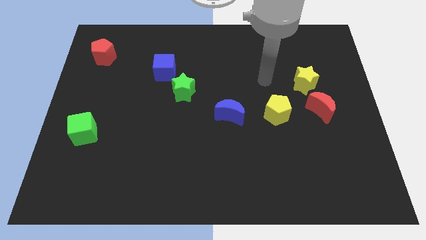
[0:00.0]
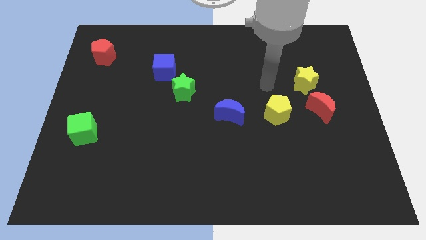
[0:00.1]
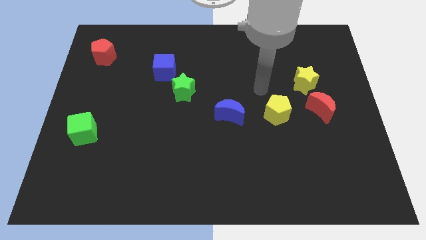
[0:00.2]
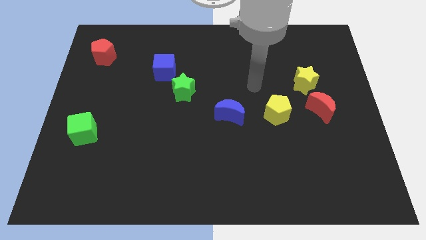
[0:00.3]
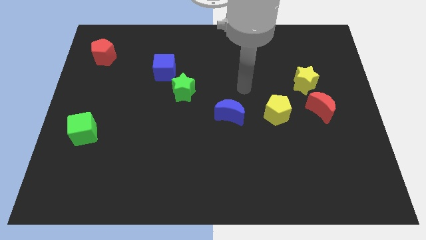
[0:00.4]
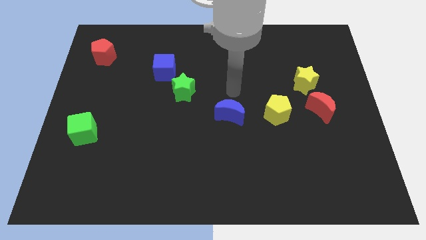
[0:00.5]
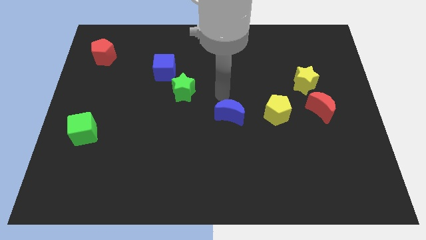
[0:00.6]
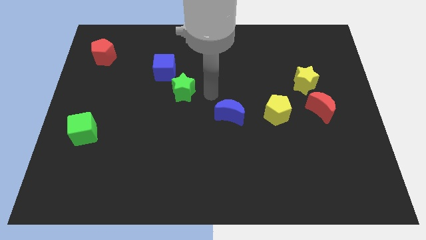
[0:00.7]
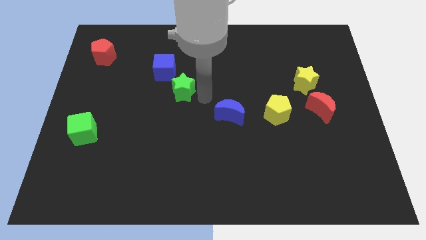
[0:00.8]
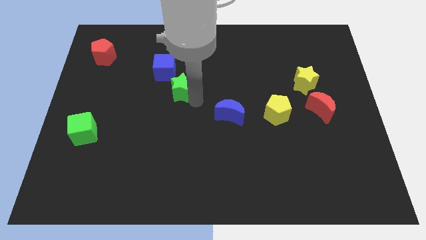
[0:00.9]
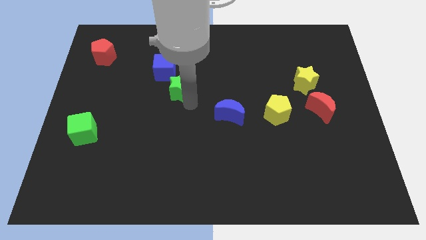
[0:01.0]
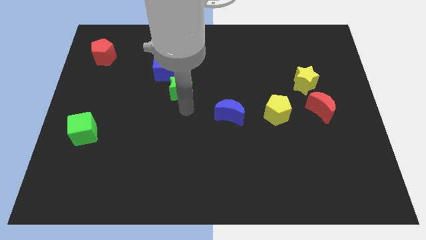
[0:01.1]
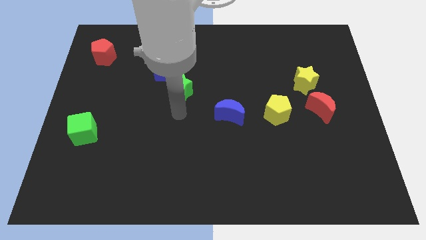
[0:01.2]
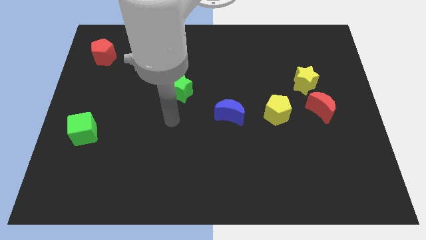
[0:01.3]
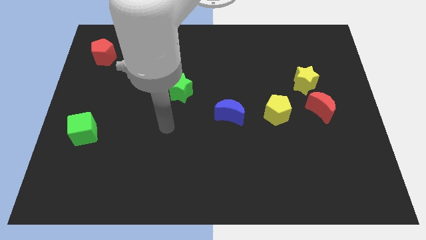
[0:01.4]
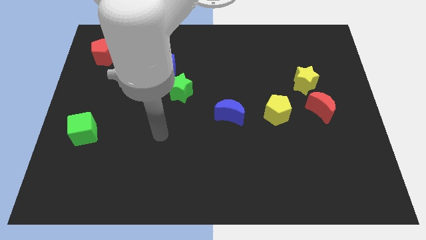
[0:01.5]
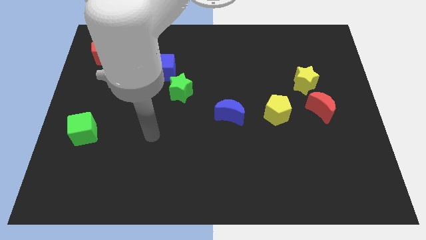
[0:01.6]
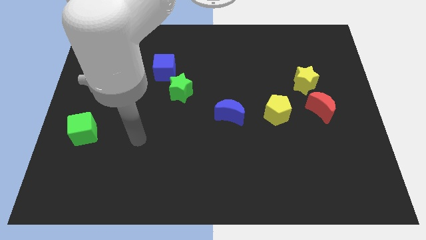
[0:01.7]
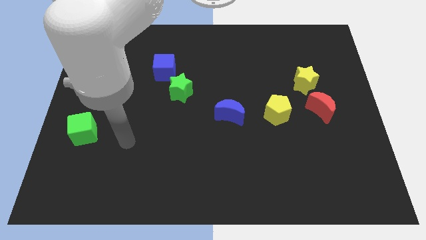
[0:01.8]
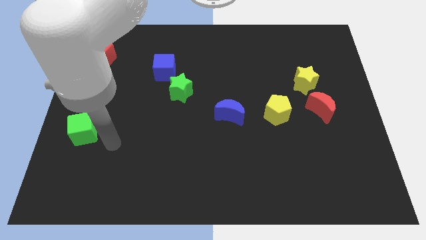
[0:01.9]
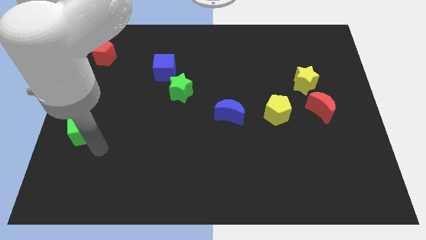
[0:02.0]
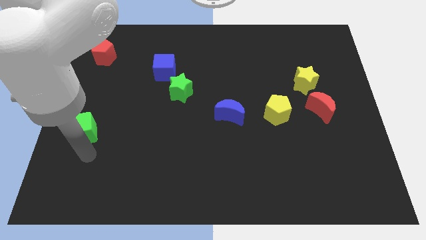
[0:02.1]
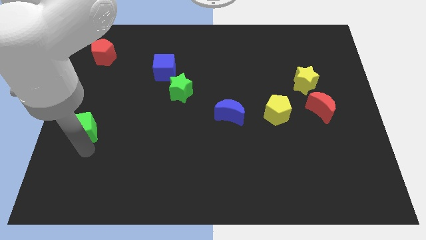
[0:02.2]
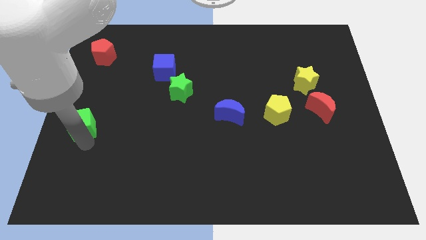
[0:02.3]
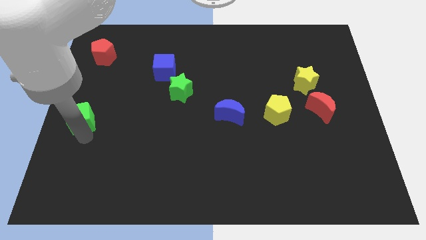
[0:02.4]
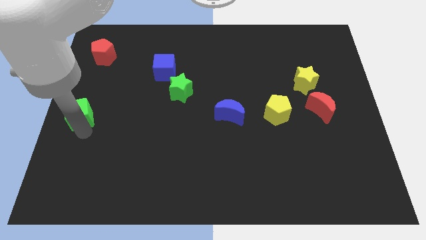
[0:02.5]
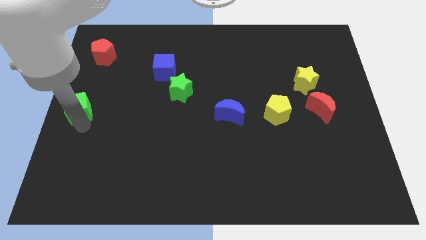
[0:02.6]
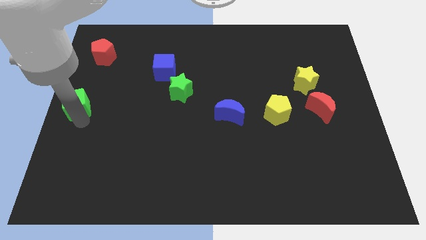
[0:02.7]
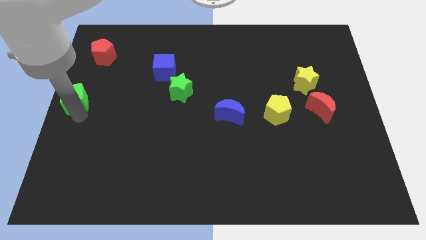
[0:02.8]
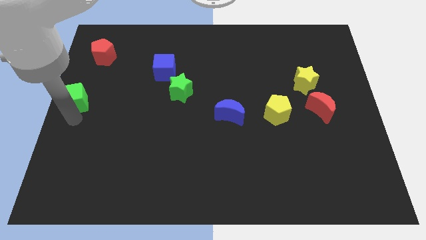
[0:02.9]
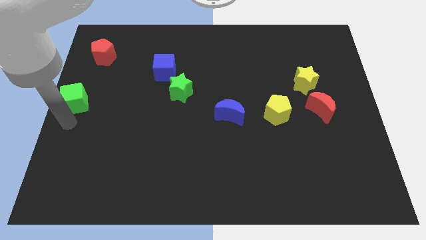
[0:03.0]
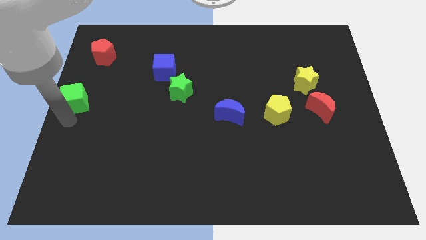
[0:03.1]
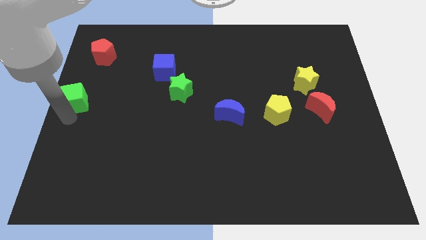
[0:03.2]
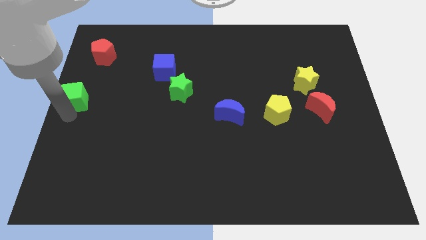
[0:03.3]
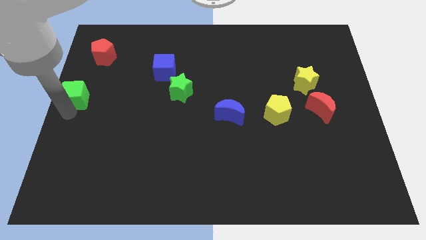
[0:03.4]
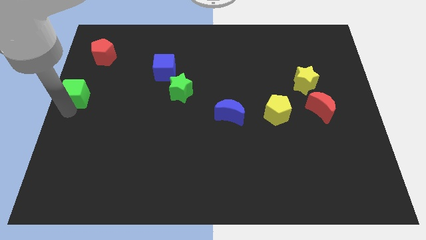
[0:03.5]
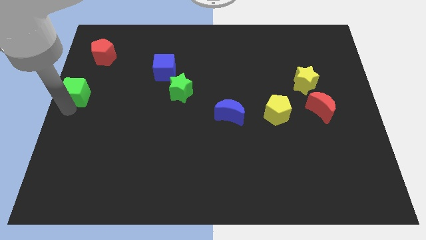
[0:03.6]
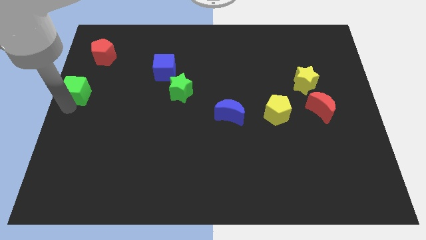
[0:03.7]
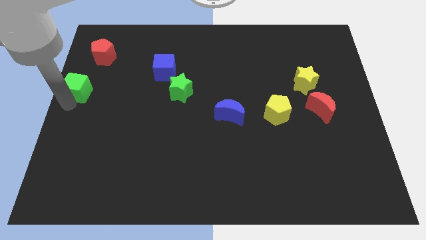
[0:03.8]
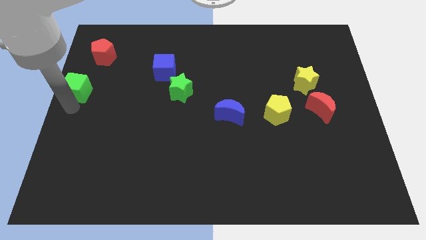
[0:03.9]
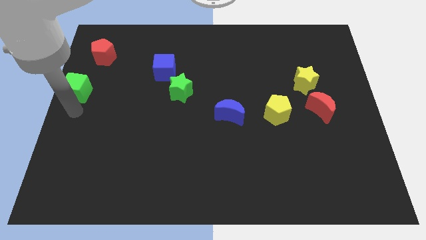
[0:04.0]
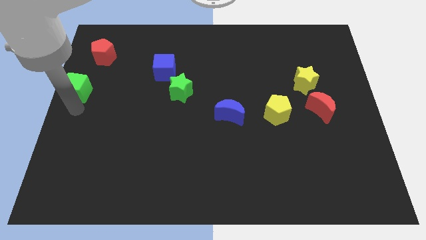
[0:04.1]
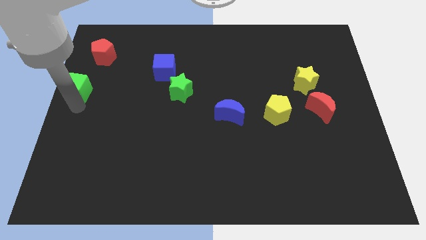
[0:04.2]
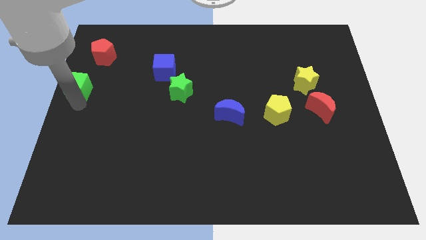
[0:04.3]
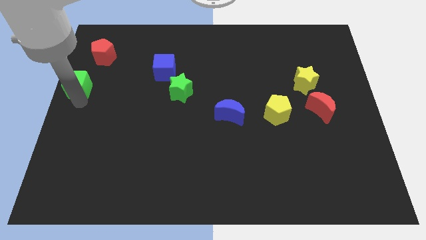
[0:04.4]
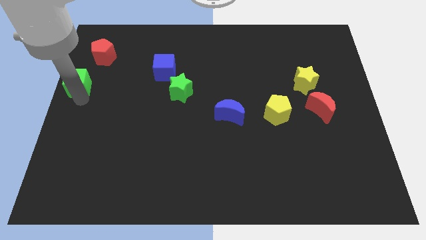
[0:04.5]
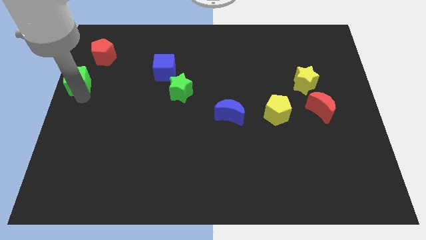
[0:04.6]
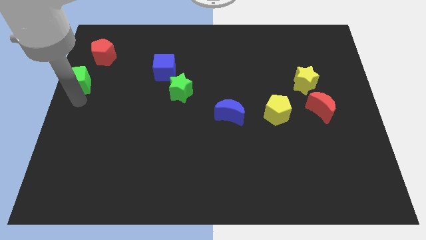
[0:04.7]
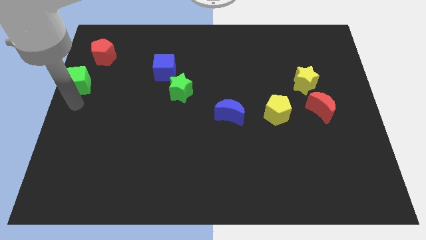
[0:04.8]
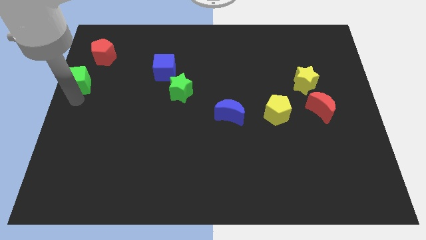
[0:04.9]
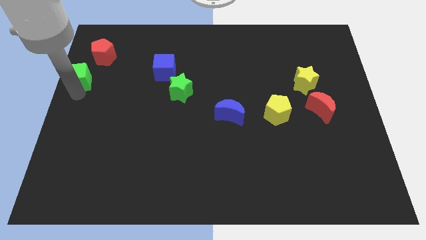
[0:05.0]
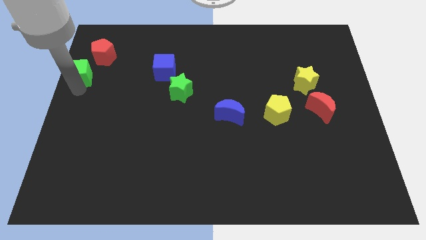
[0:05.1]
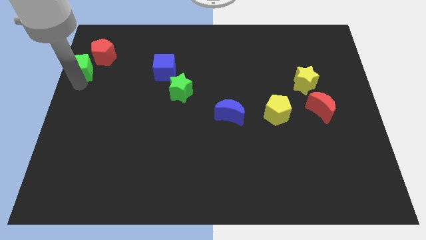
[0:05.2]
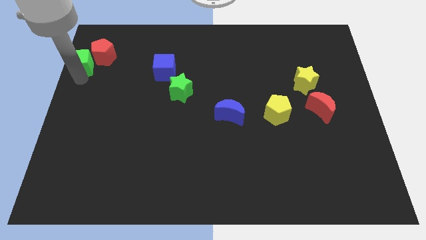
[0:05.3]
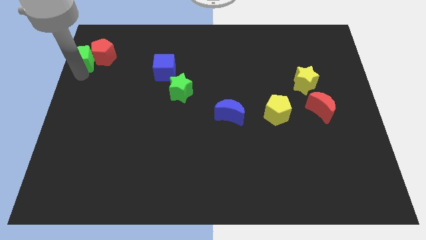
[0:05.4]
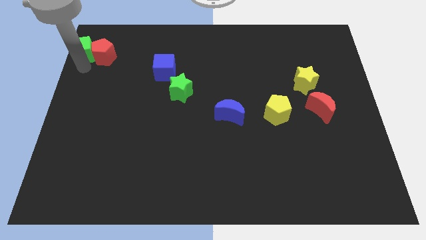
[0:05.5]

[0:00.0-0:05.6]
put the green cube to the top left

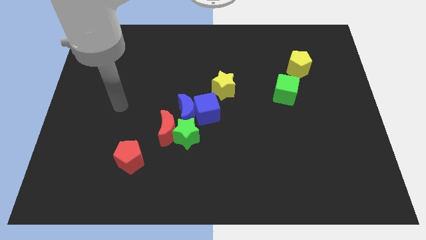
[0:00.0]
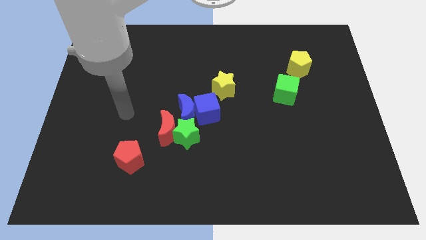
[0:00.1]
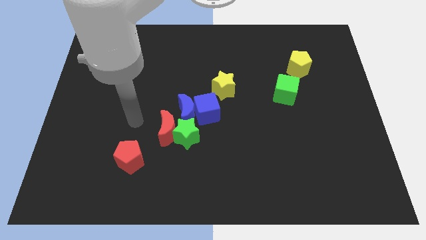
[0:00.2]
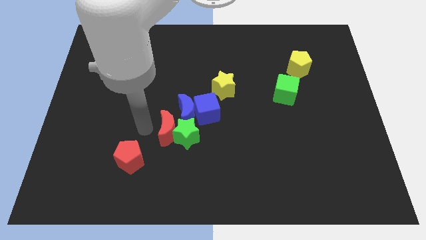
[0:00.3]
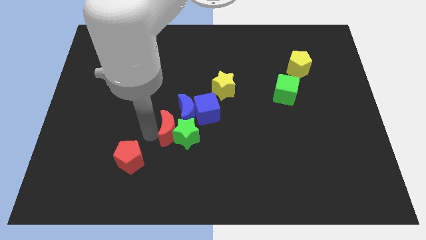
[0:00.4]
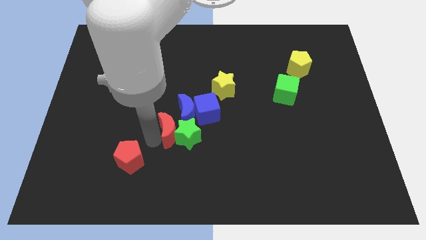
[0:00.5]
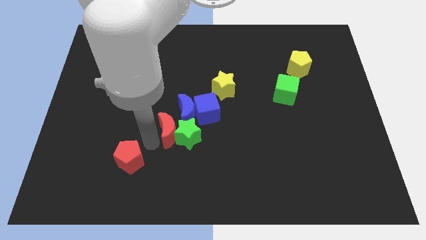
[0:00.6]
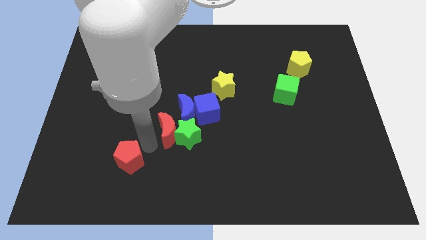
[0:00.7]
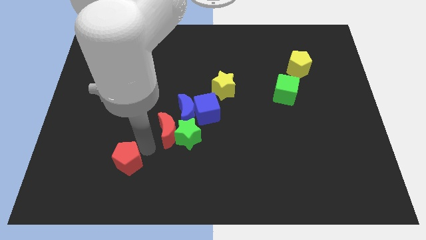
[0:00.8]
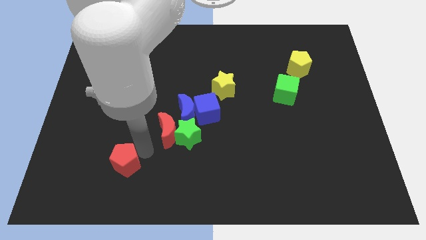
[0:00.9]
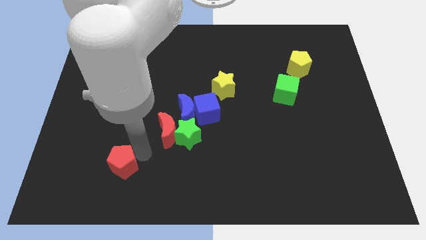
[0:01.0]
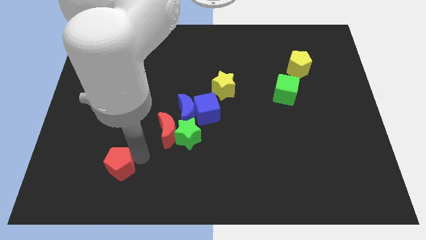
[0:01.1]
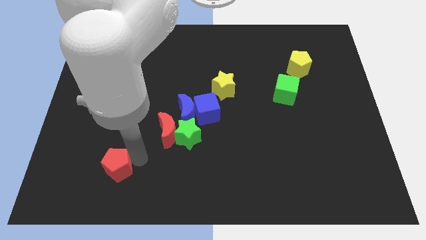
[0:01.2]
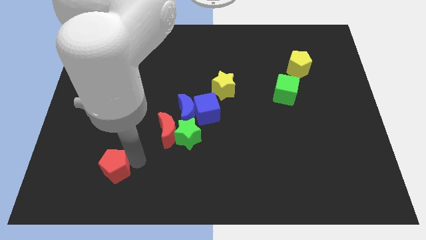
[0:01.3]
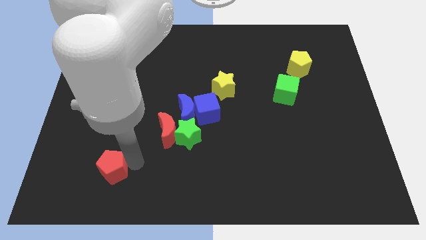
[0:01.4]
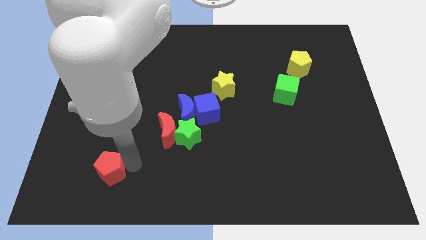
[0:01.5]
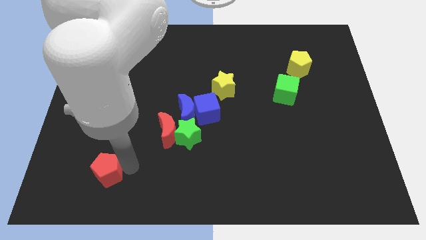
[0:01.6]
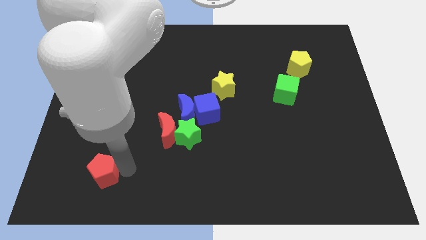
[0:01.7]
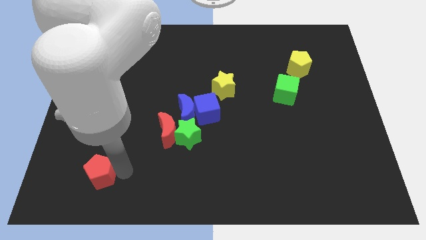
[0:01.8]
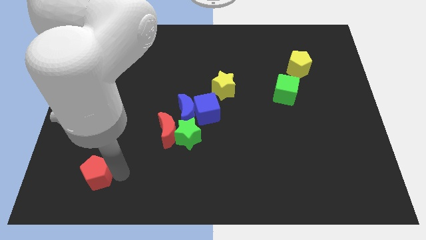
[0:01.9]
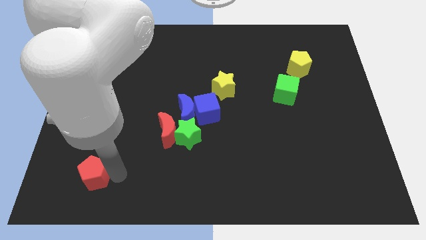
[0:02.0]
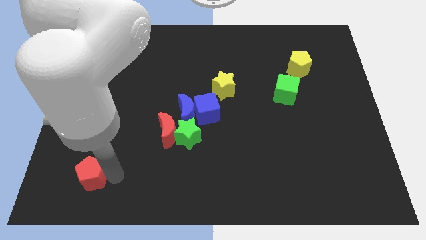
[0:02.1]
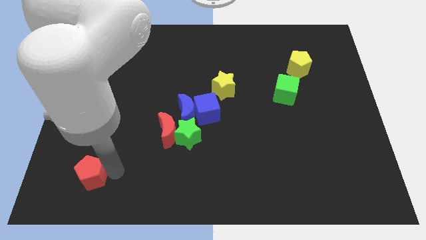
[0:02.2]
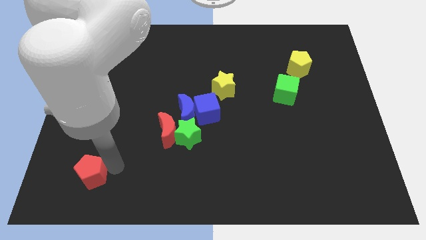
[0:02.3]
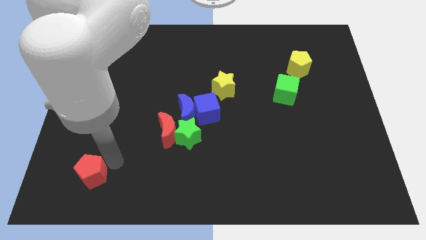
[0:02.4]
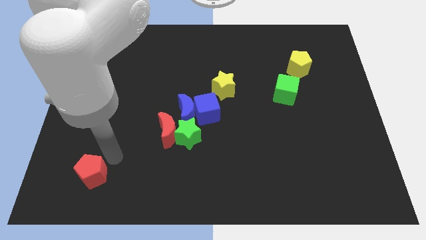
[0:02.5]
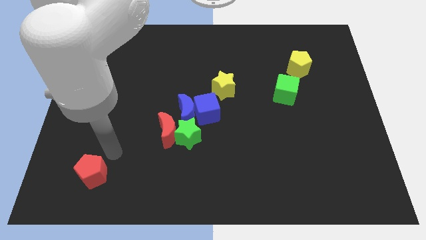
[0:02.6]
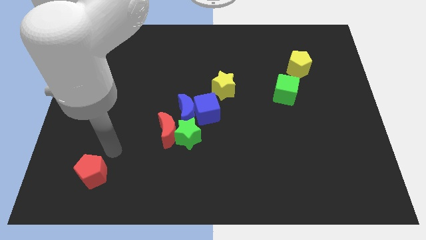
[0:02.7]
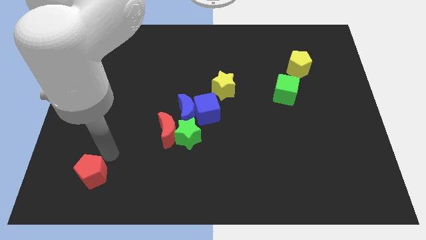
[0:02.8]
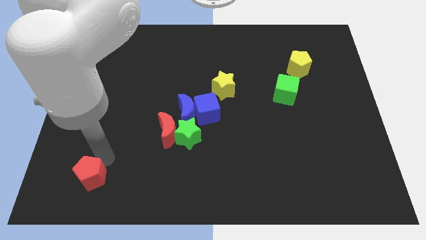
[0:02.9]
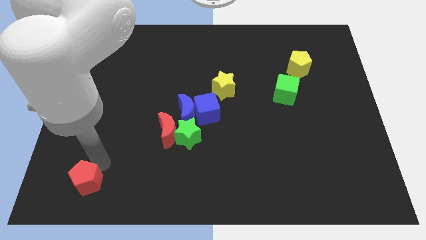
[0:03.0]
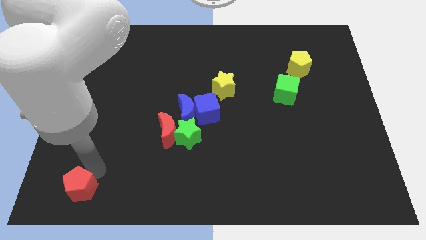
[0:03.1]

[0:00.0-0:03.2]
push the red pentagon to the bottom left corner
